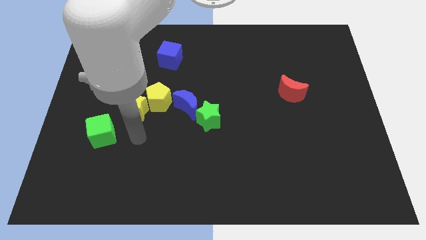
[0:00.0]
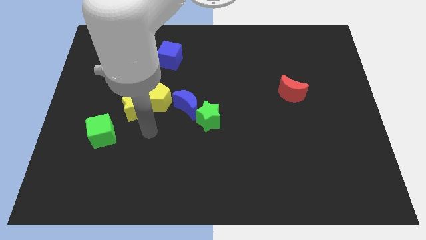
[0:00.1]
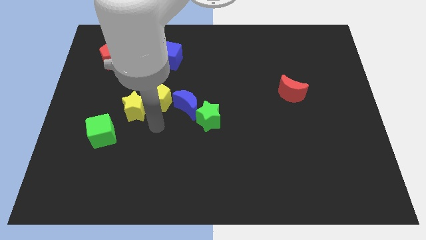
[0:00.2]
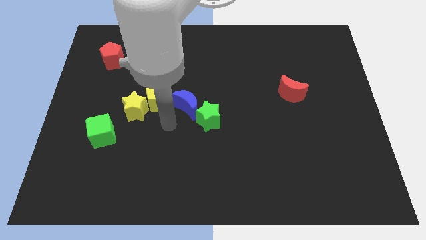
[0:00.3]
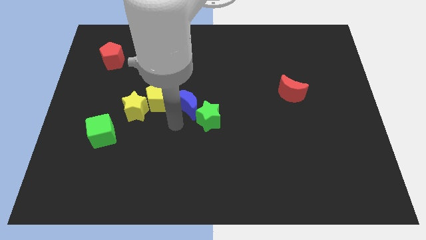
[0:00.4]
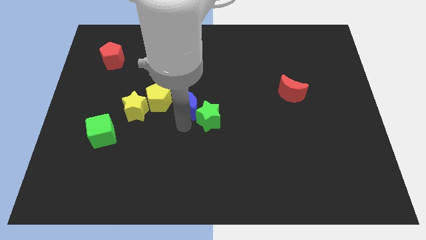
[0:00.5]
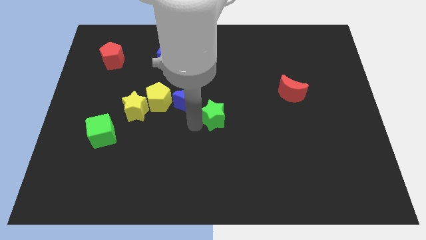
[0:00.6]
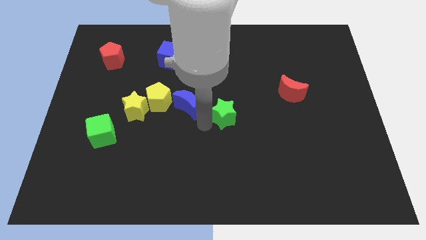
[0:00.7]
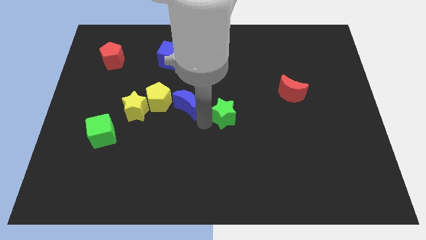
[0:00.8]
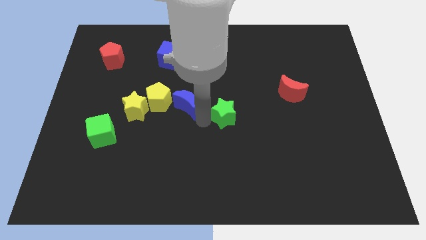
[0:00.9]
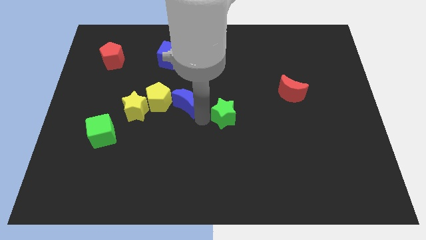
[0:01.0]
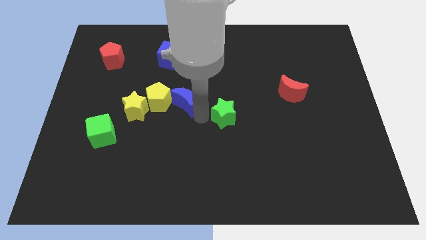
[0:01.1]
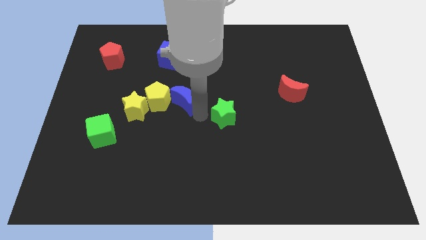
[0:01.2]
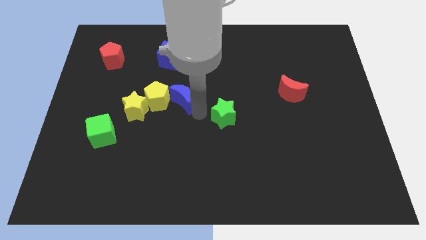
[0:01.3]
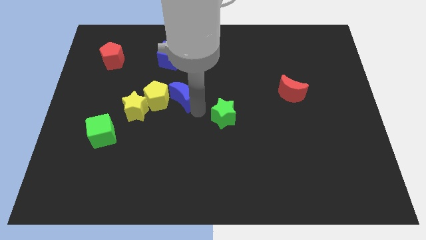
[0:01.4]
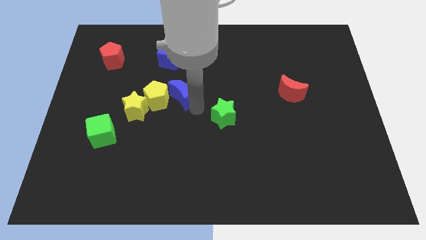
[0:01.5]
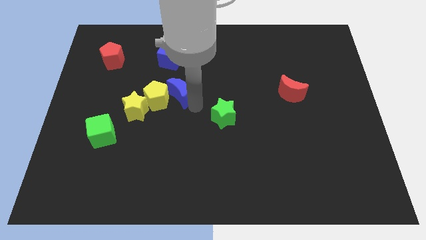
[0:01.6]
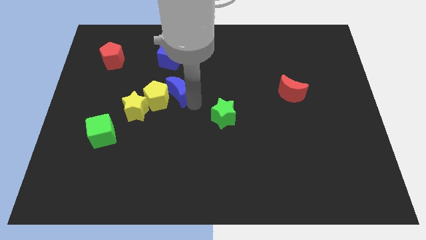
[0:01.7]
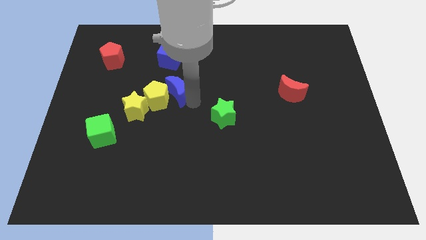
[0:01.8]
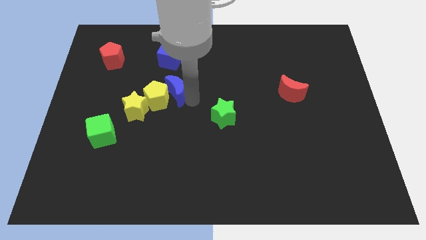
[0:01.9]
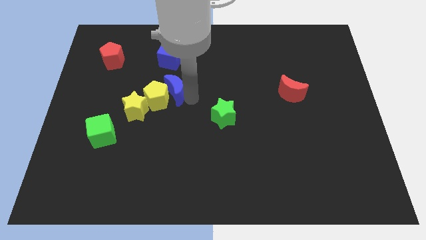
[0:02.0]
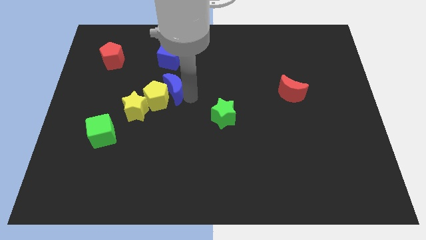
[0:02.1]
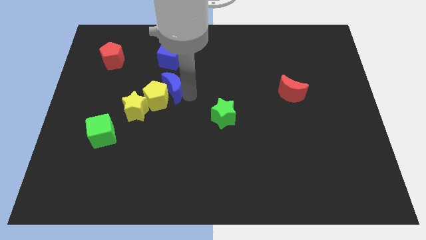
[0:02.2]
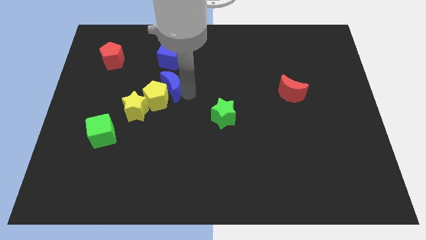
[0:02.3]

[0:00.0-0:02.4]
slide the blue moon up and to the left a little bit

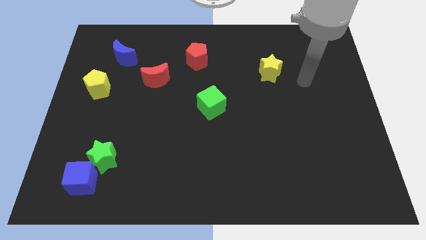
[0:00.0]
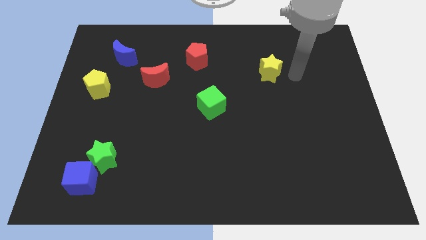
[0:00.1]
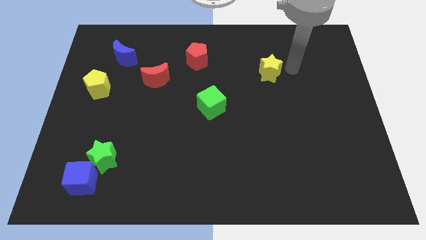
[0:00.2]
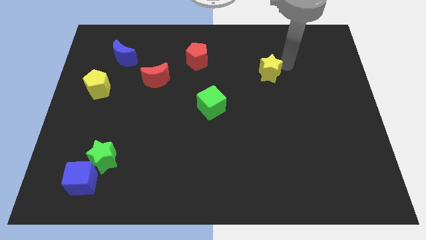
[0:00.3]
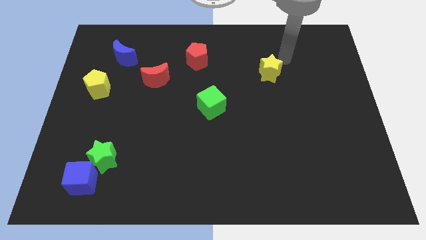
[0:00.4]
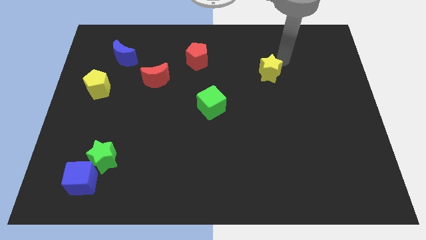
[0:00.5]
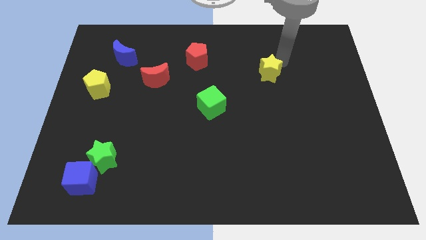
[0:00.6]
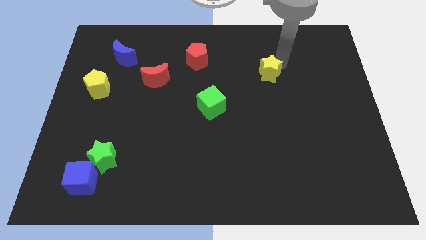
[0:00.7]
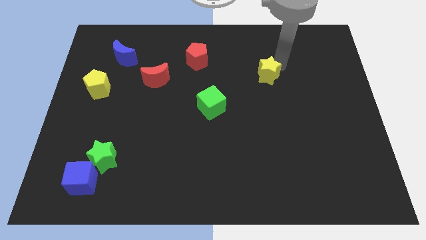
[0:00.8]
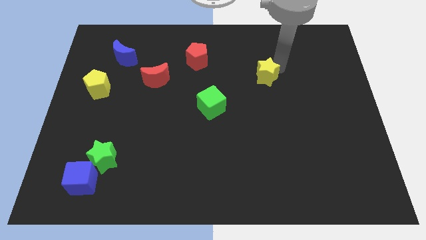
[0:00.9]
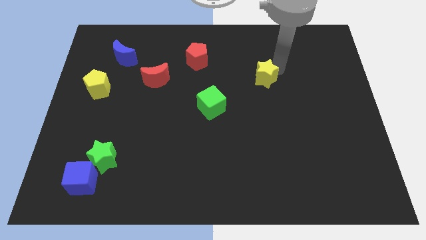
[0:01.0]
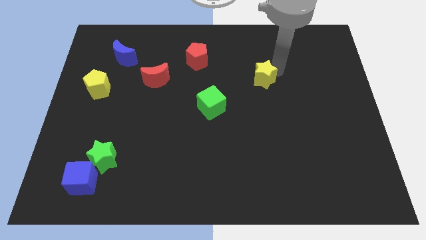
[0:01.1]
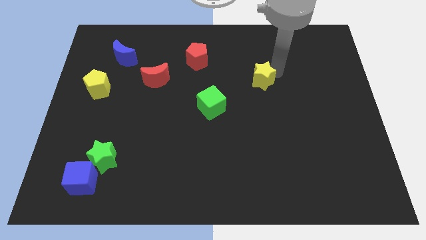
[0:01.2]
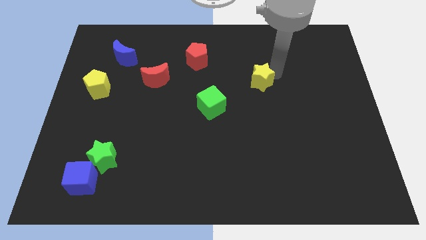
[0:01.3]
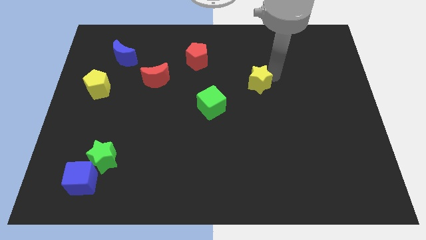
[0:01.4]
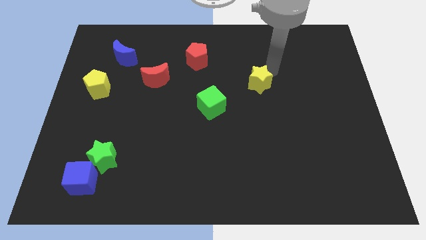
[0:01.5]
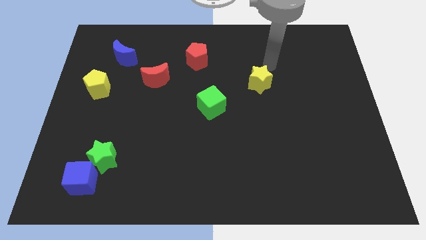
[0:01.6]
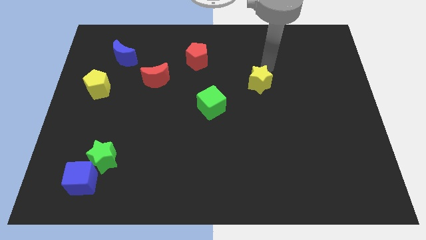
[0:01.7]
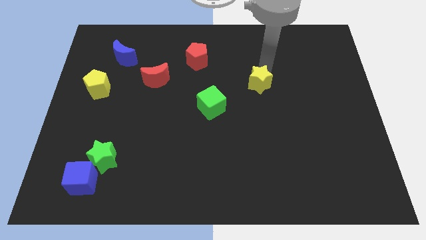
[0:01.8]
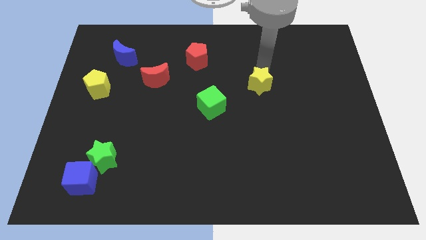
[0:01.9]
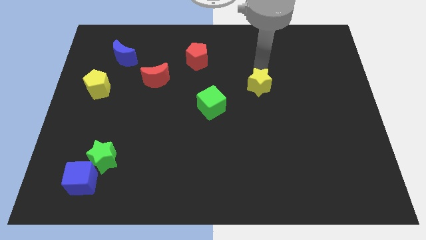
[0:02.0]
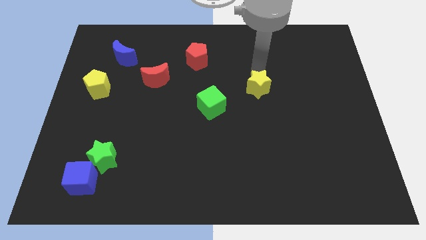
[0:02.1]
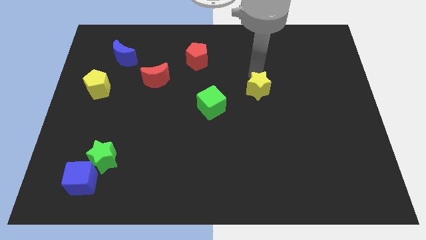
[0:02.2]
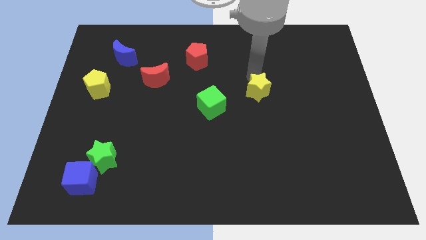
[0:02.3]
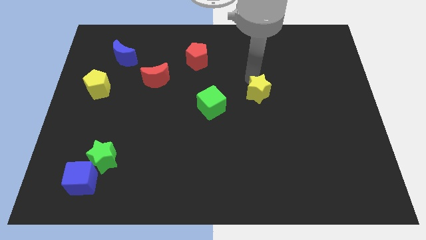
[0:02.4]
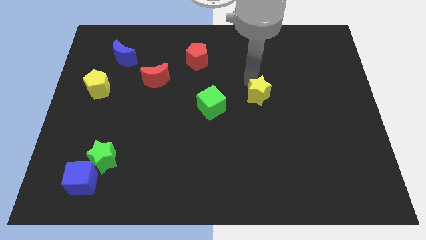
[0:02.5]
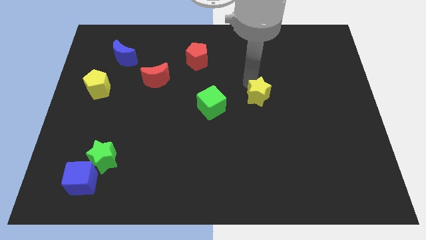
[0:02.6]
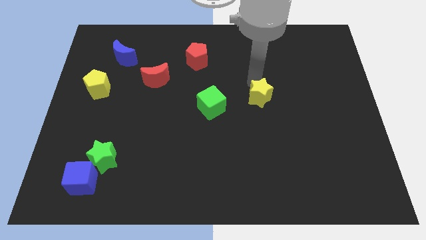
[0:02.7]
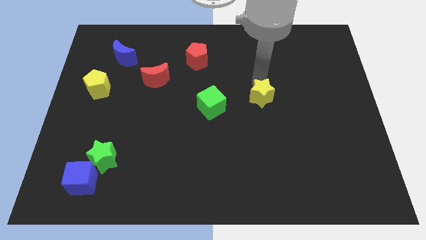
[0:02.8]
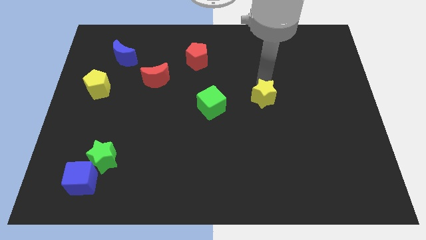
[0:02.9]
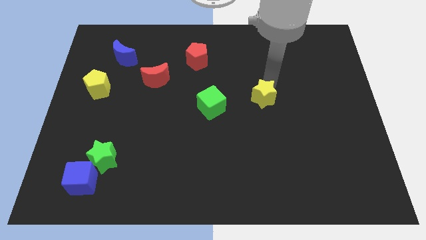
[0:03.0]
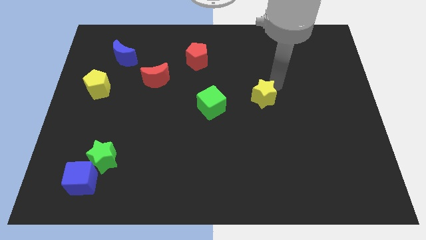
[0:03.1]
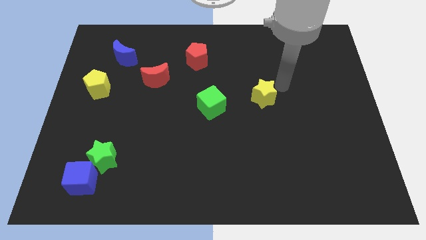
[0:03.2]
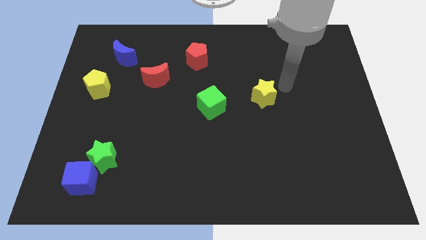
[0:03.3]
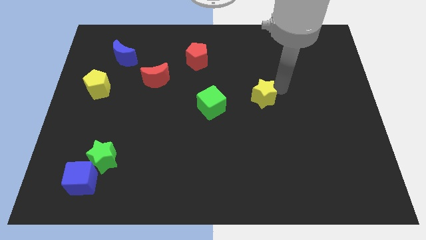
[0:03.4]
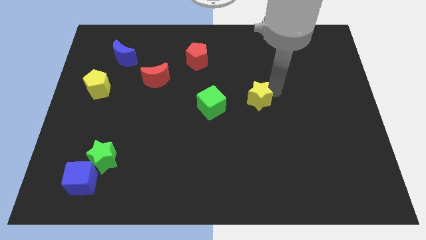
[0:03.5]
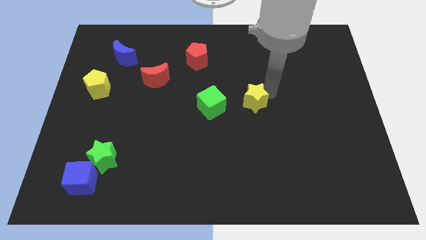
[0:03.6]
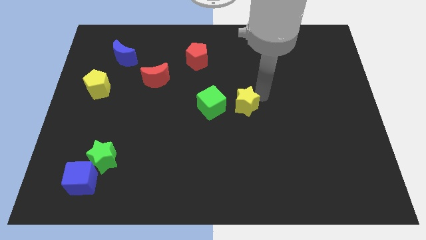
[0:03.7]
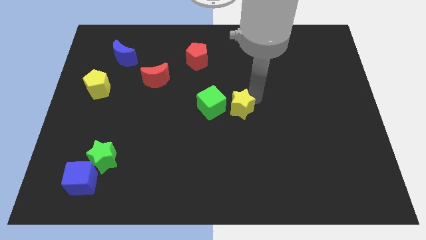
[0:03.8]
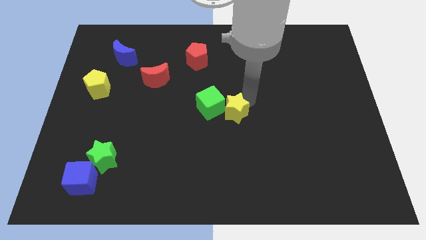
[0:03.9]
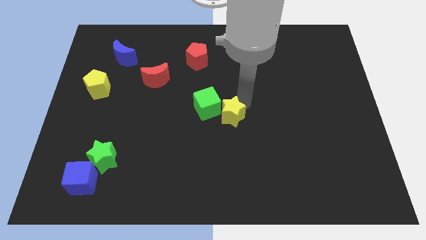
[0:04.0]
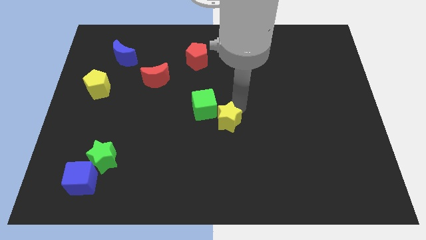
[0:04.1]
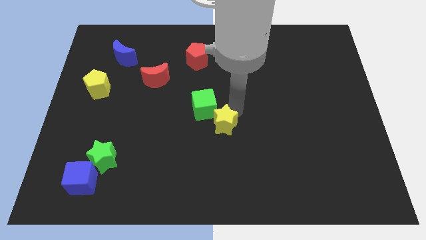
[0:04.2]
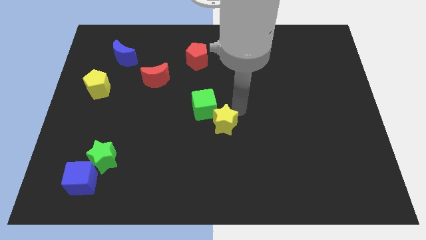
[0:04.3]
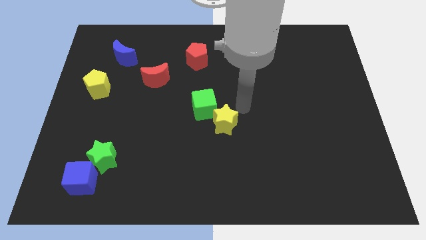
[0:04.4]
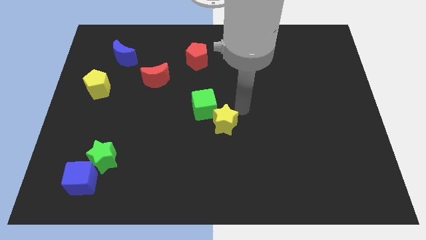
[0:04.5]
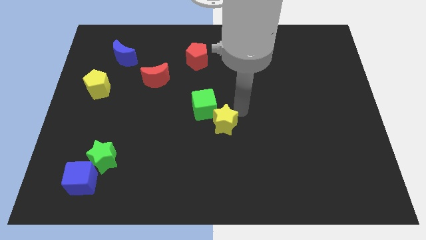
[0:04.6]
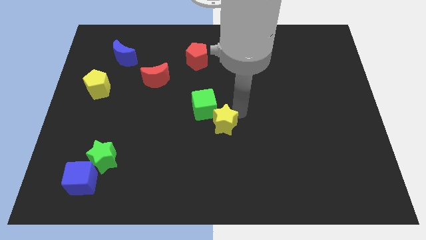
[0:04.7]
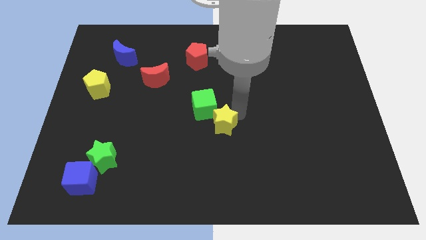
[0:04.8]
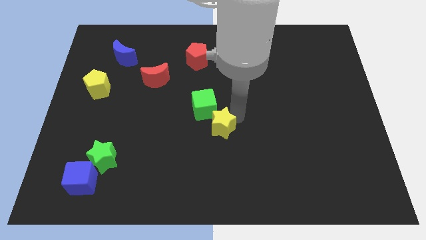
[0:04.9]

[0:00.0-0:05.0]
push the yellow star downwards and left diagonally

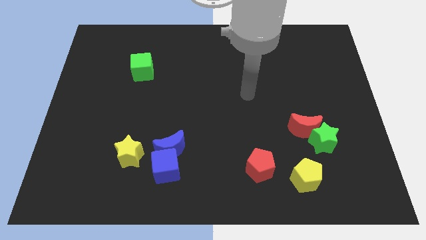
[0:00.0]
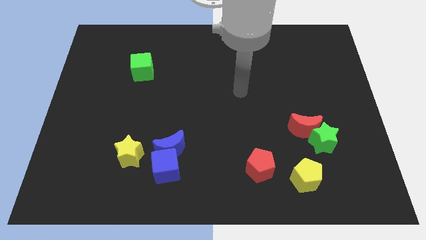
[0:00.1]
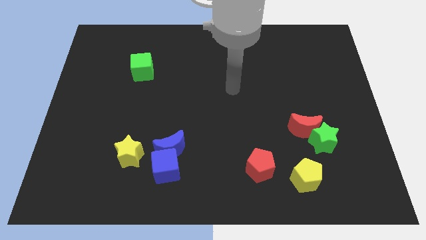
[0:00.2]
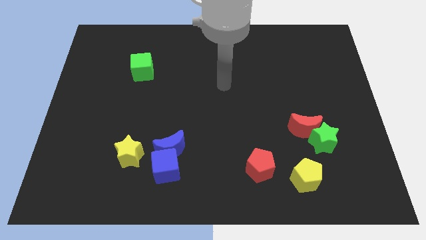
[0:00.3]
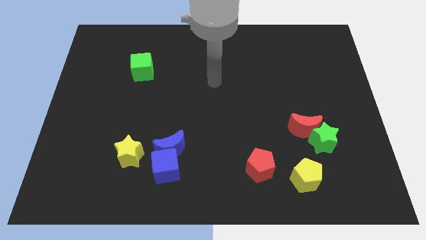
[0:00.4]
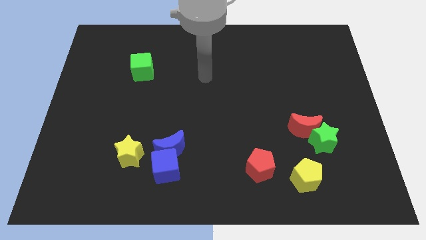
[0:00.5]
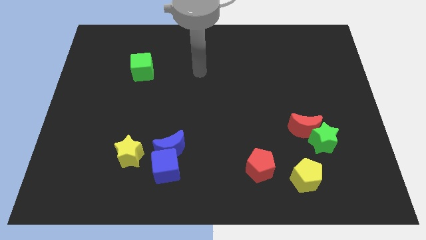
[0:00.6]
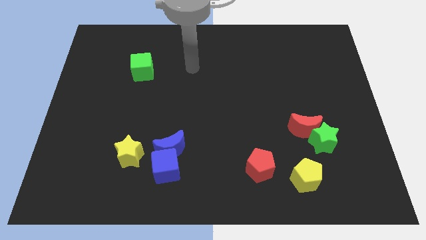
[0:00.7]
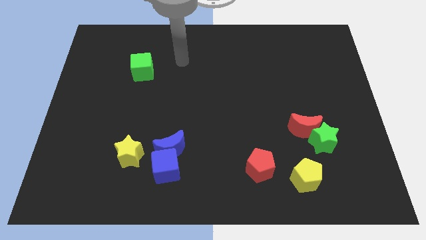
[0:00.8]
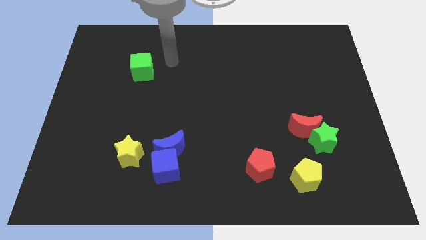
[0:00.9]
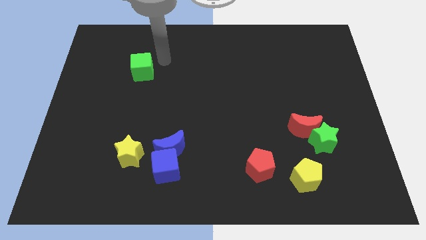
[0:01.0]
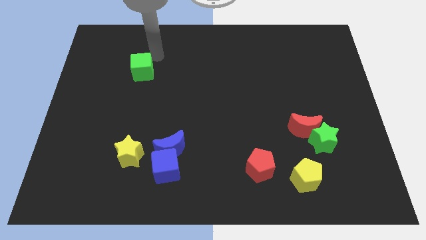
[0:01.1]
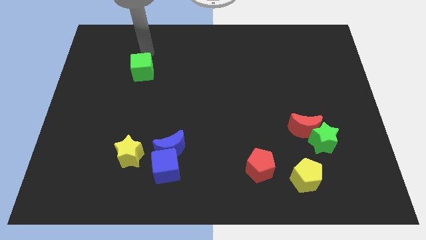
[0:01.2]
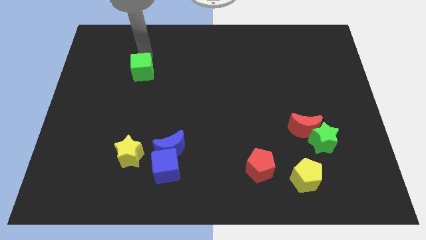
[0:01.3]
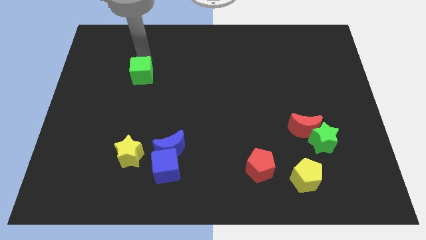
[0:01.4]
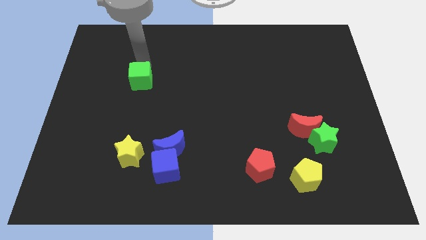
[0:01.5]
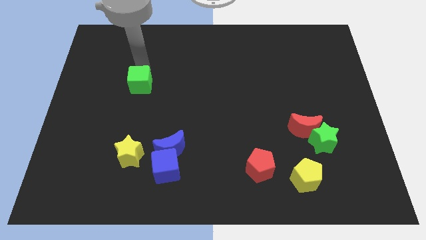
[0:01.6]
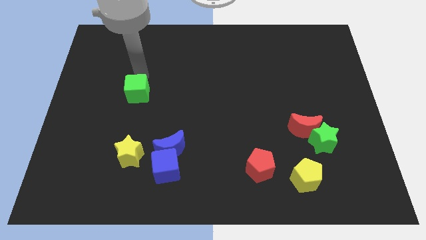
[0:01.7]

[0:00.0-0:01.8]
move the green cube slightly downwards
